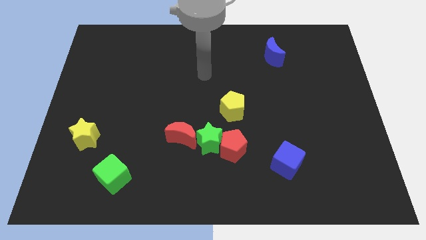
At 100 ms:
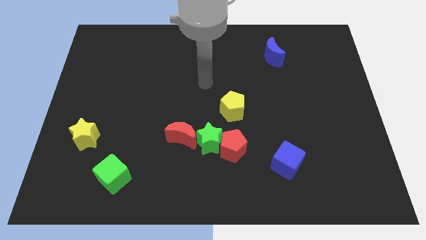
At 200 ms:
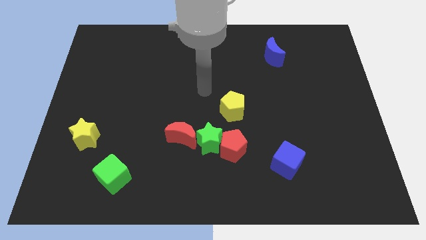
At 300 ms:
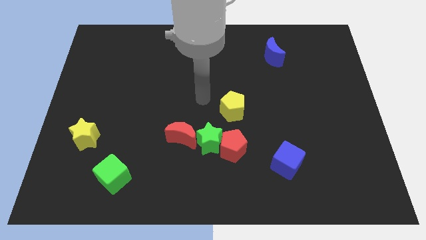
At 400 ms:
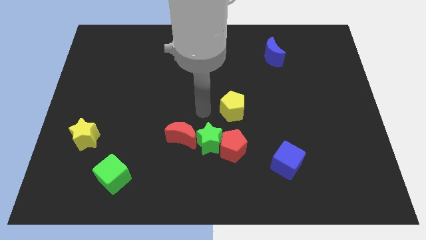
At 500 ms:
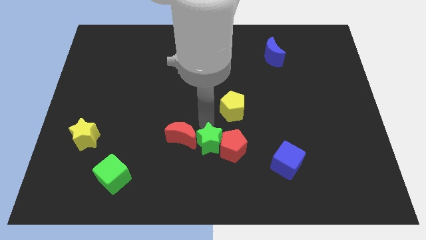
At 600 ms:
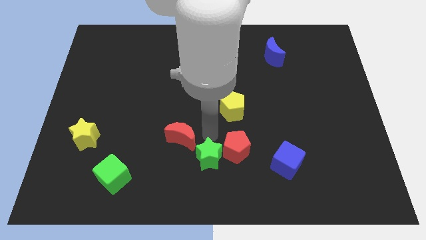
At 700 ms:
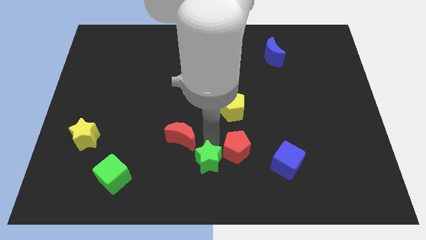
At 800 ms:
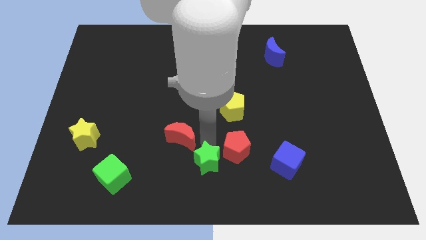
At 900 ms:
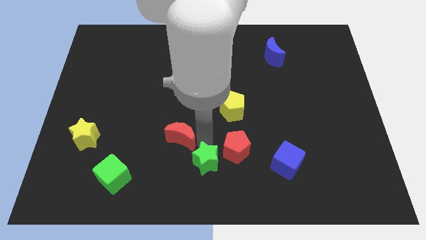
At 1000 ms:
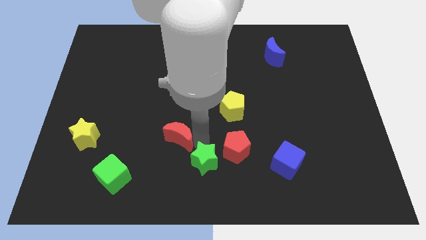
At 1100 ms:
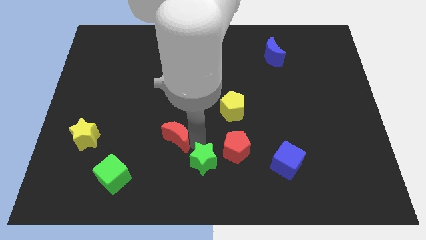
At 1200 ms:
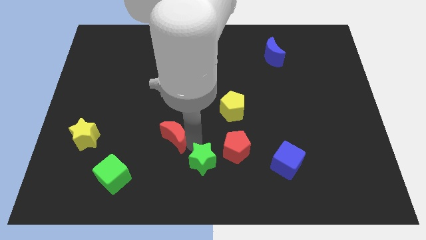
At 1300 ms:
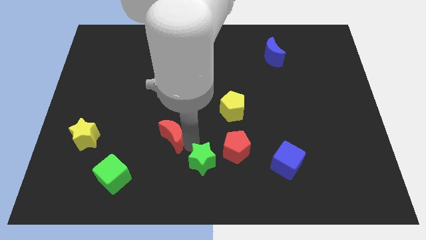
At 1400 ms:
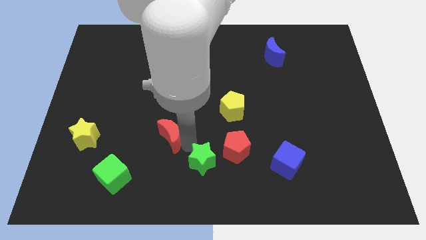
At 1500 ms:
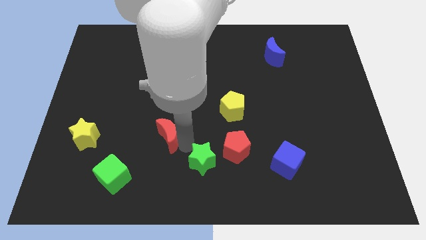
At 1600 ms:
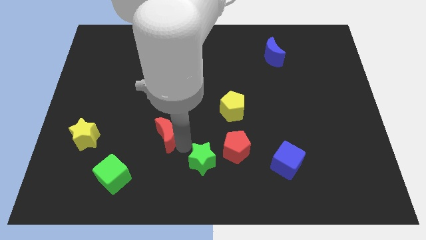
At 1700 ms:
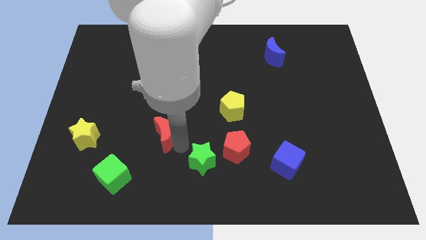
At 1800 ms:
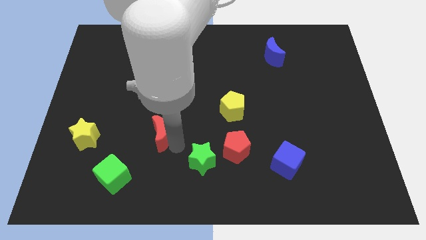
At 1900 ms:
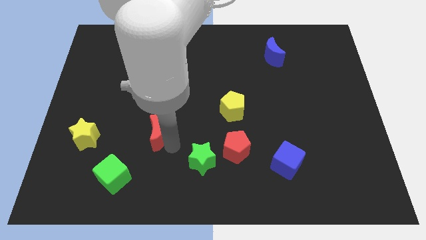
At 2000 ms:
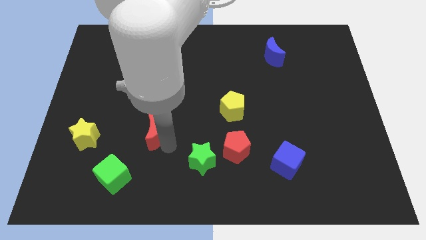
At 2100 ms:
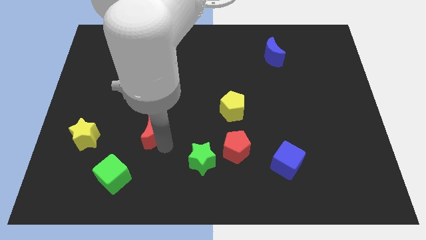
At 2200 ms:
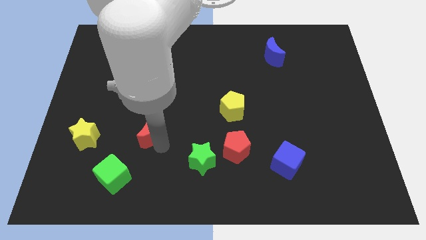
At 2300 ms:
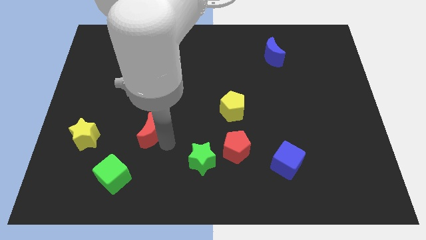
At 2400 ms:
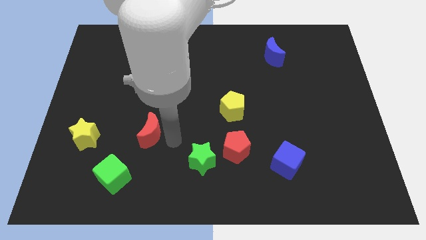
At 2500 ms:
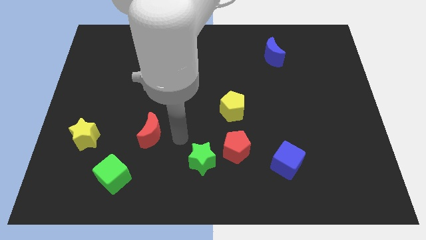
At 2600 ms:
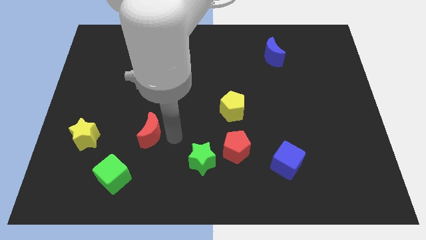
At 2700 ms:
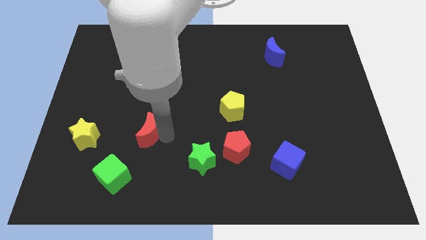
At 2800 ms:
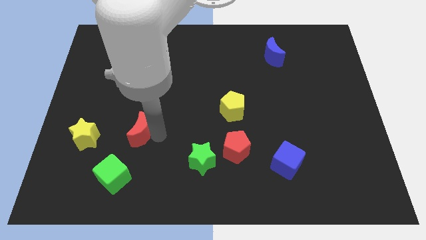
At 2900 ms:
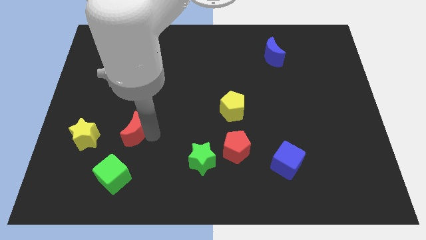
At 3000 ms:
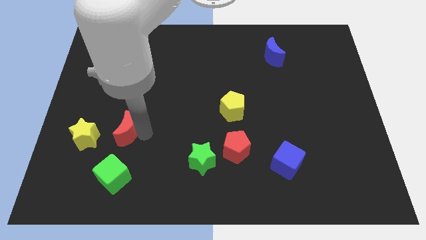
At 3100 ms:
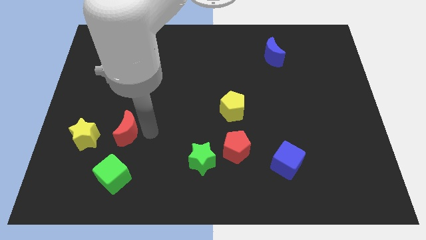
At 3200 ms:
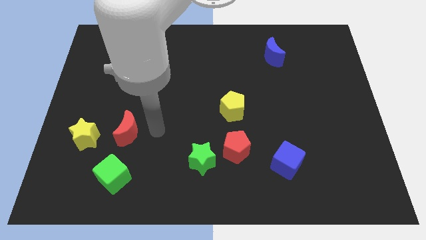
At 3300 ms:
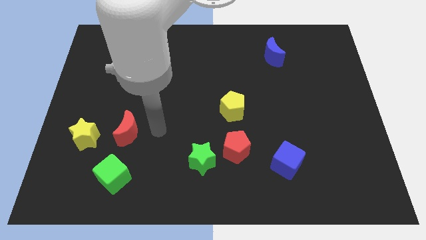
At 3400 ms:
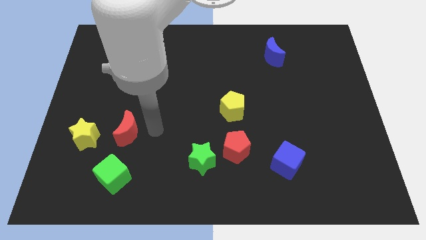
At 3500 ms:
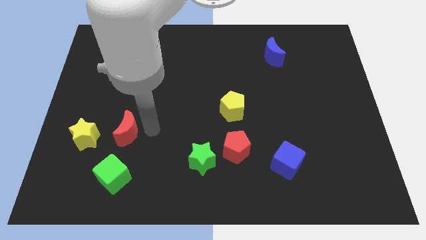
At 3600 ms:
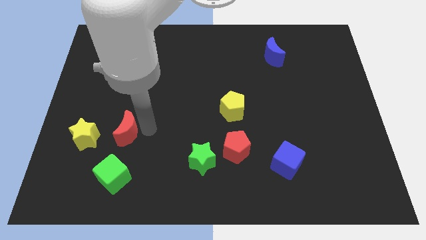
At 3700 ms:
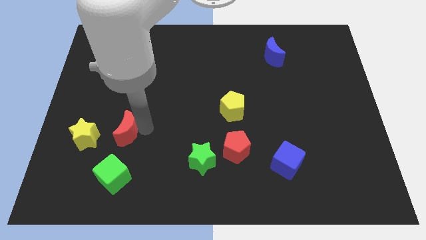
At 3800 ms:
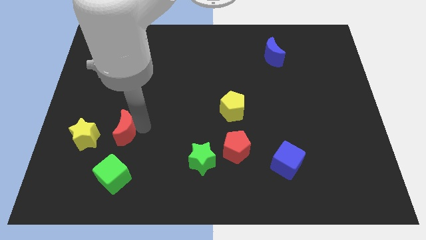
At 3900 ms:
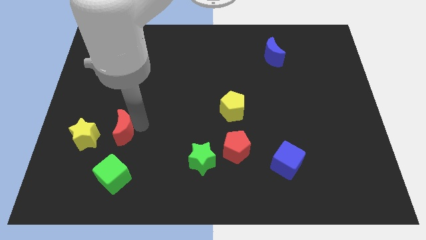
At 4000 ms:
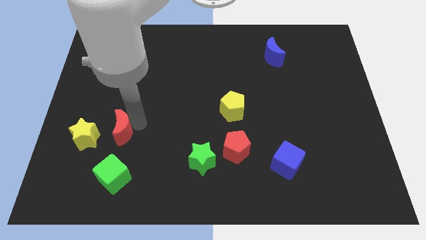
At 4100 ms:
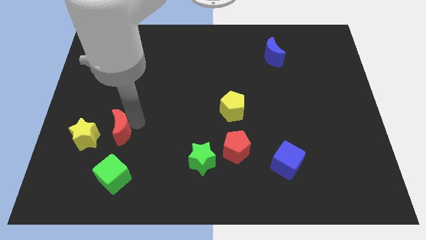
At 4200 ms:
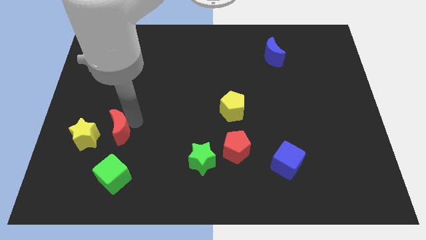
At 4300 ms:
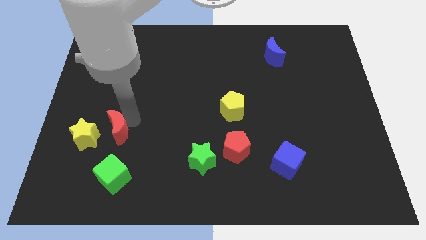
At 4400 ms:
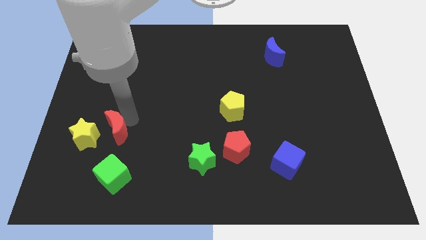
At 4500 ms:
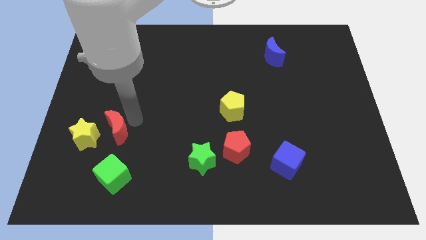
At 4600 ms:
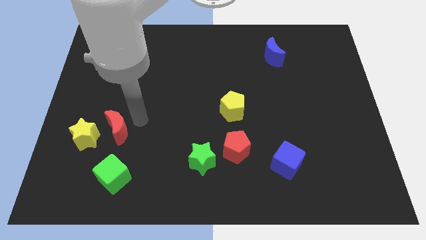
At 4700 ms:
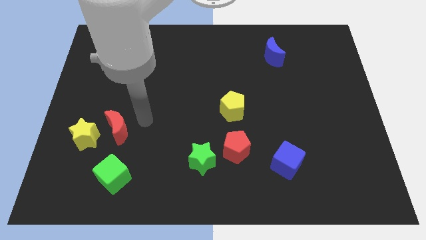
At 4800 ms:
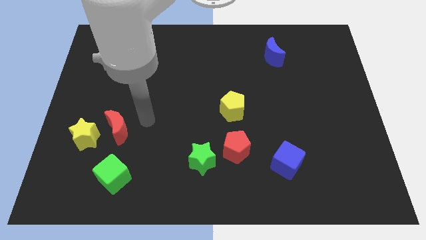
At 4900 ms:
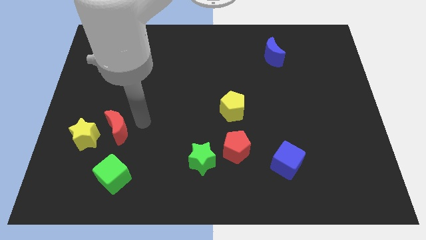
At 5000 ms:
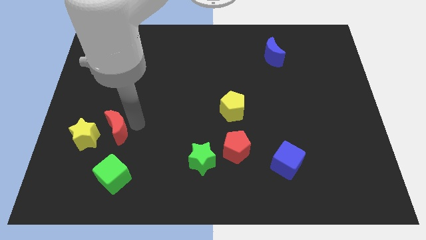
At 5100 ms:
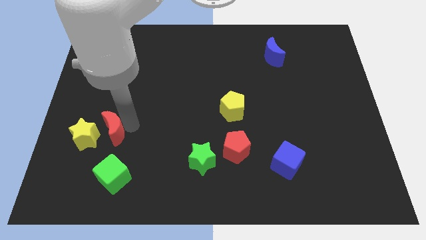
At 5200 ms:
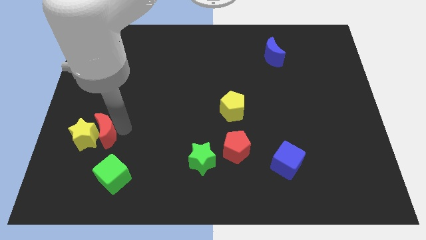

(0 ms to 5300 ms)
slide the red moon close to the yellow star

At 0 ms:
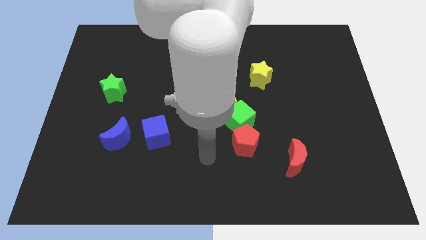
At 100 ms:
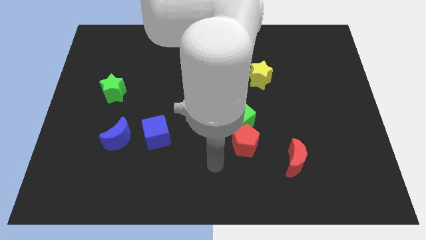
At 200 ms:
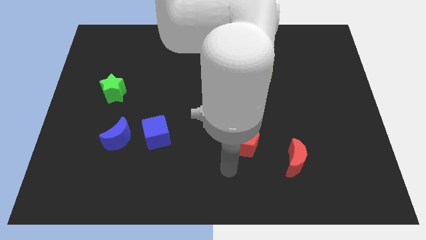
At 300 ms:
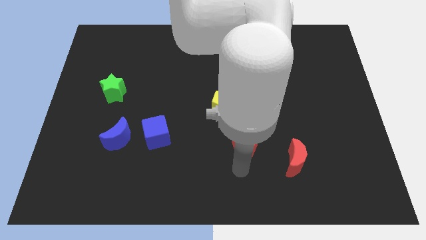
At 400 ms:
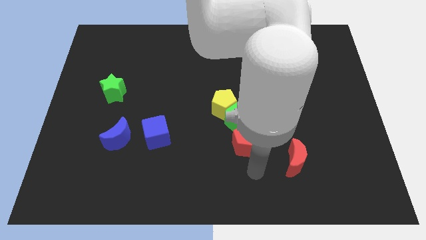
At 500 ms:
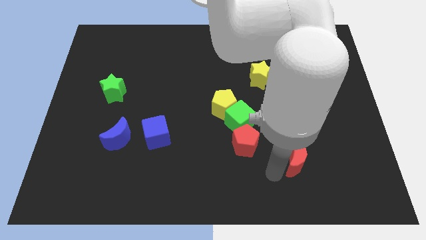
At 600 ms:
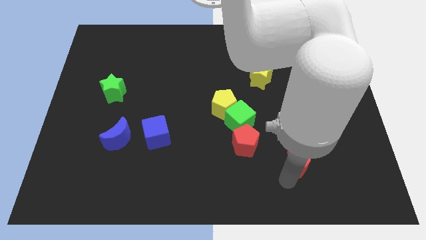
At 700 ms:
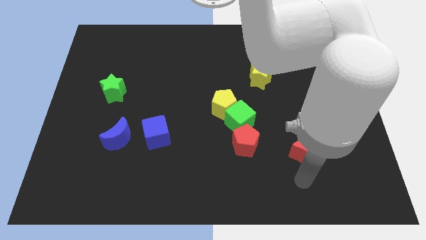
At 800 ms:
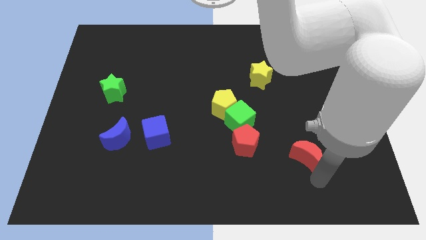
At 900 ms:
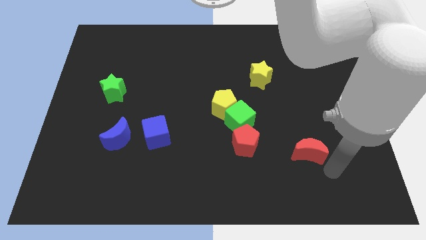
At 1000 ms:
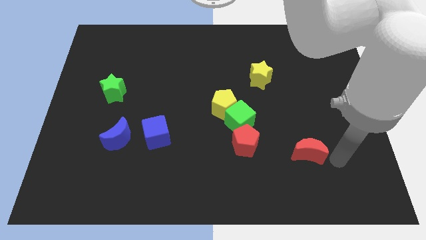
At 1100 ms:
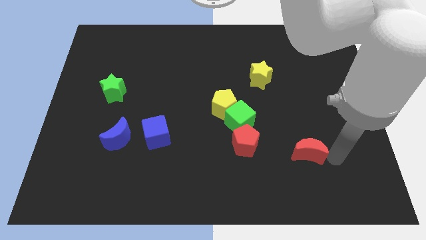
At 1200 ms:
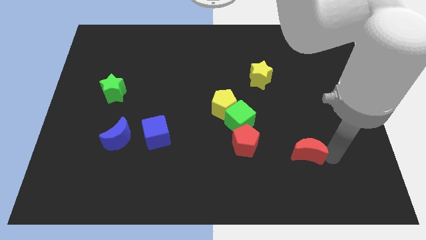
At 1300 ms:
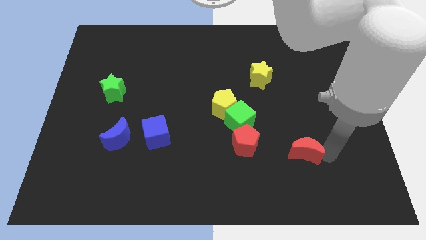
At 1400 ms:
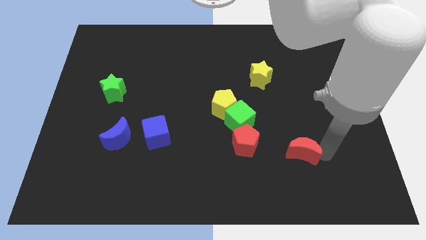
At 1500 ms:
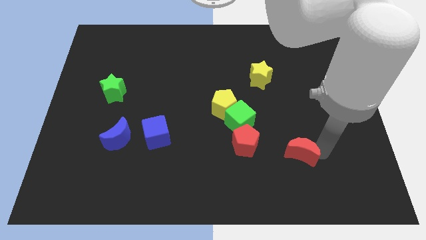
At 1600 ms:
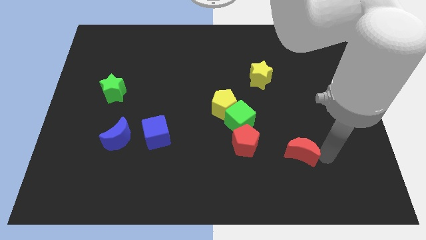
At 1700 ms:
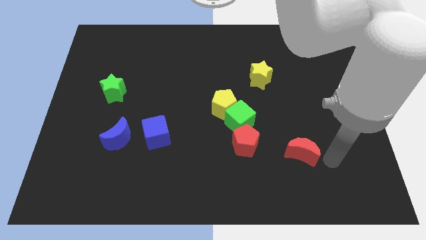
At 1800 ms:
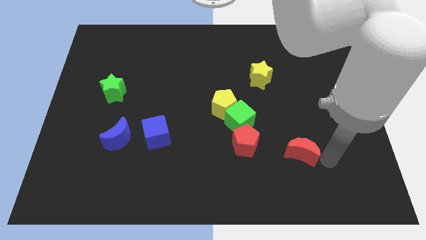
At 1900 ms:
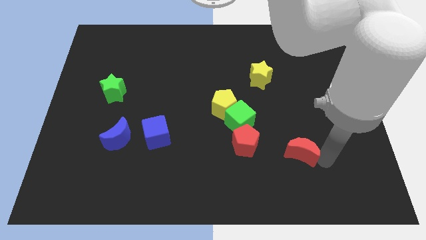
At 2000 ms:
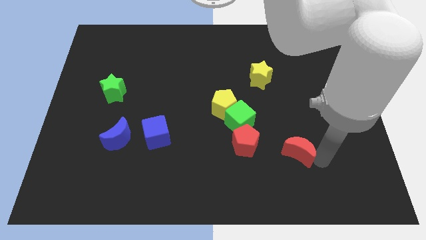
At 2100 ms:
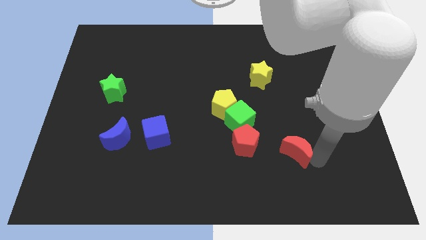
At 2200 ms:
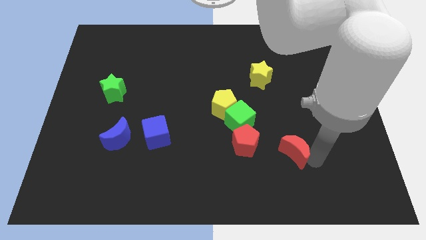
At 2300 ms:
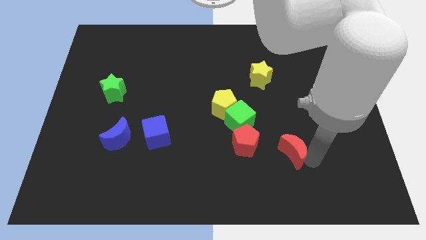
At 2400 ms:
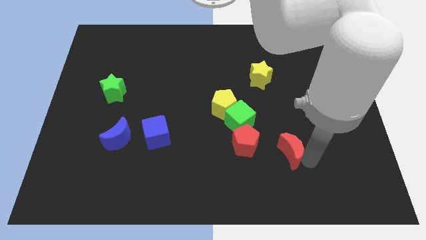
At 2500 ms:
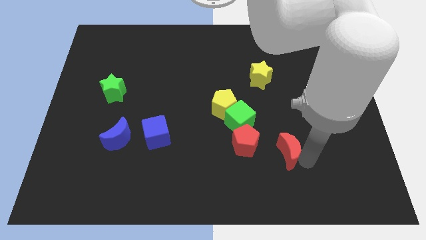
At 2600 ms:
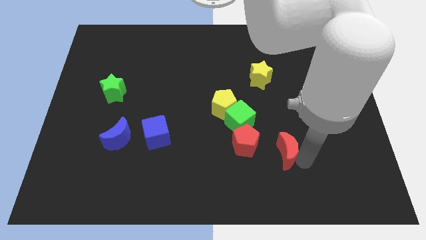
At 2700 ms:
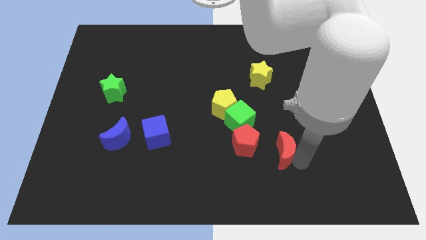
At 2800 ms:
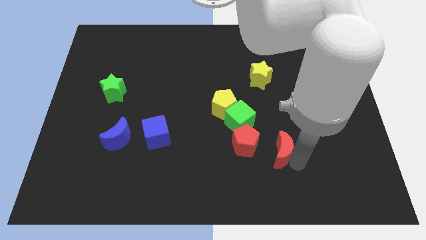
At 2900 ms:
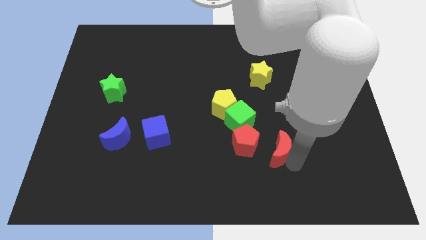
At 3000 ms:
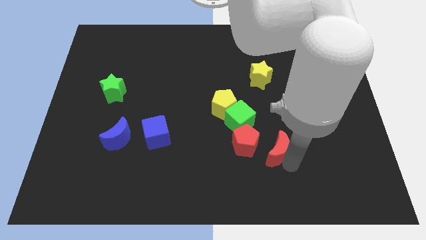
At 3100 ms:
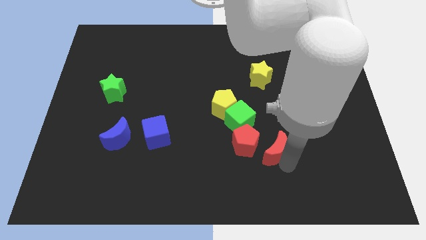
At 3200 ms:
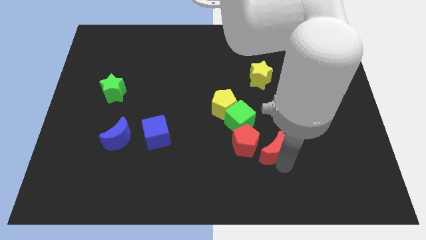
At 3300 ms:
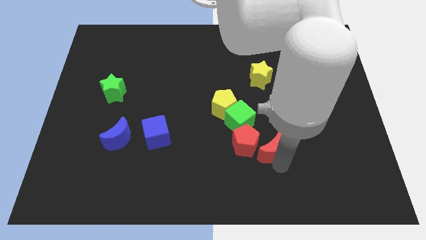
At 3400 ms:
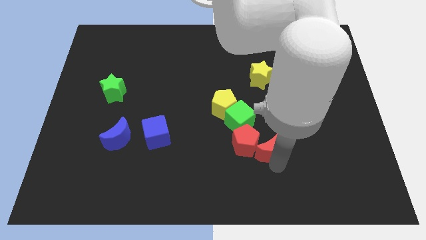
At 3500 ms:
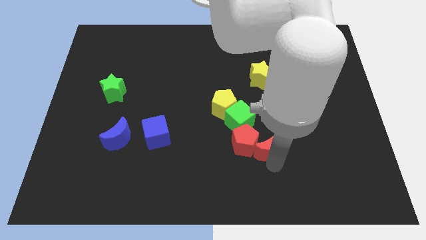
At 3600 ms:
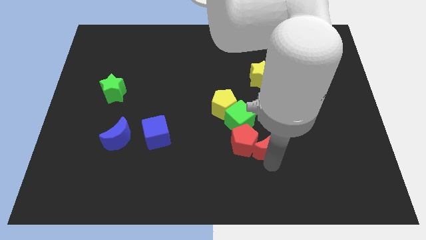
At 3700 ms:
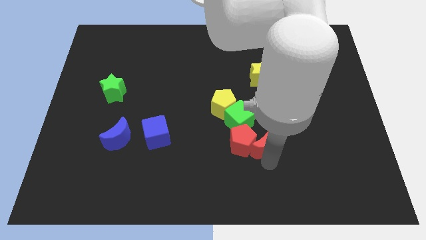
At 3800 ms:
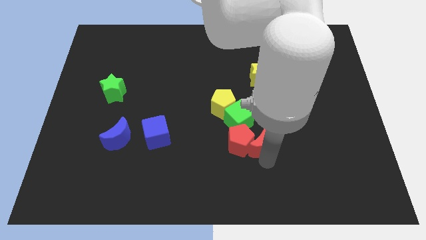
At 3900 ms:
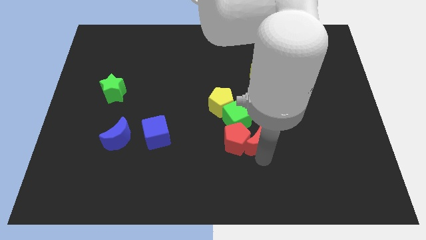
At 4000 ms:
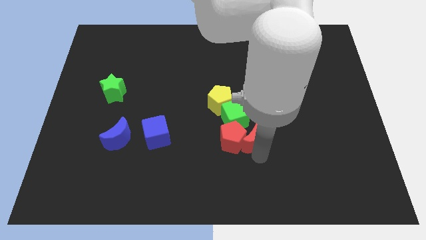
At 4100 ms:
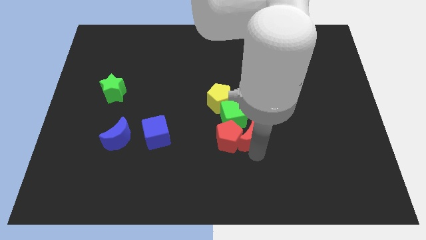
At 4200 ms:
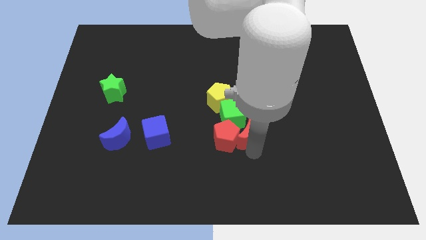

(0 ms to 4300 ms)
move the red moon towards the green cube
